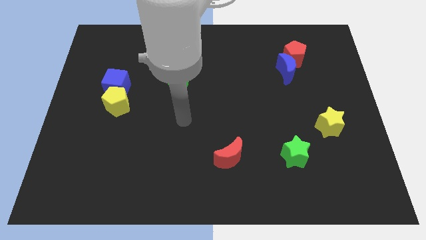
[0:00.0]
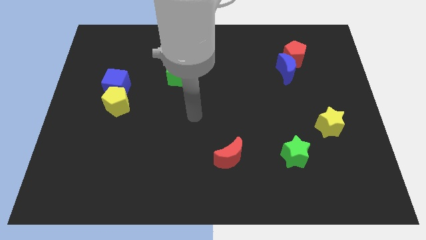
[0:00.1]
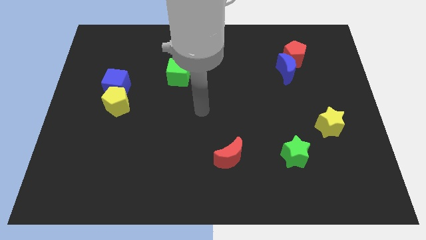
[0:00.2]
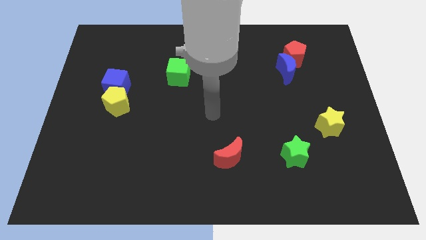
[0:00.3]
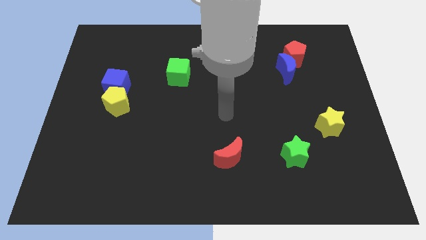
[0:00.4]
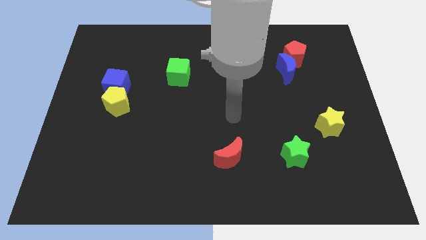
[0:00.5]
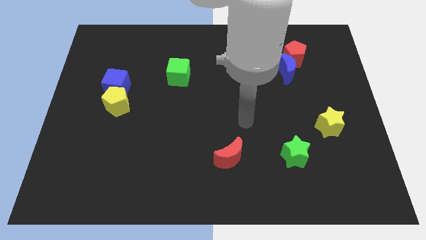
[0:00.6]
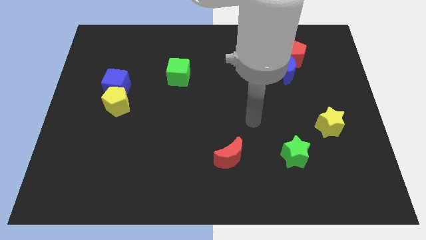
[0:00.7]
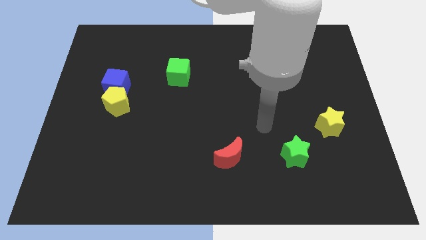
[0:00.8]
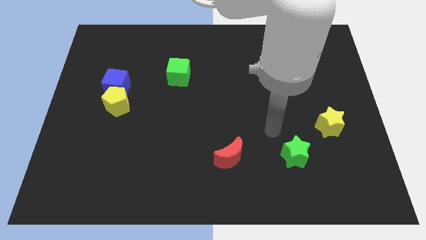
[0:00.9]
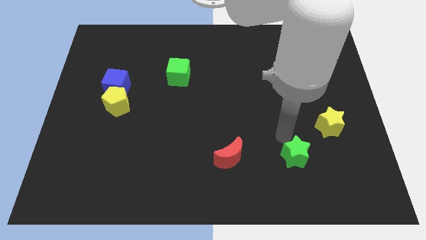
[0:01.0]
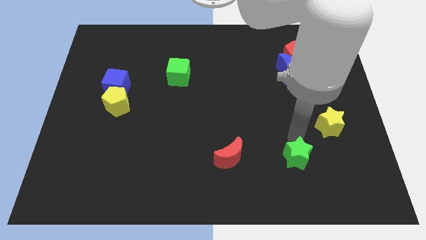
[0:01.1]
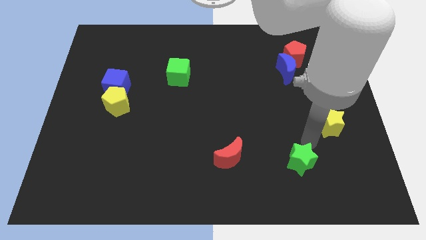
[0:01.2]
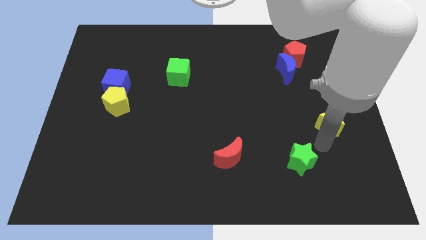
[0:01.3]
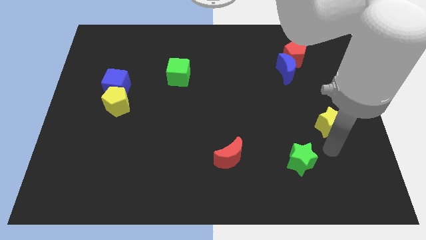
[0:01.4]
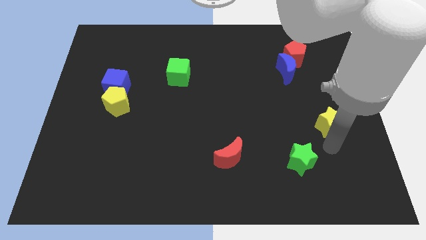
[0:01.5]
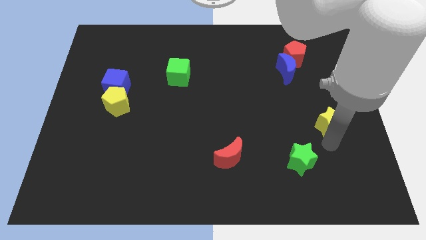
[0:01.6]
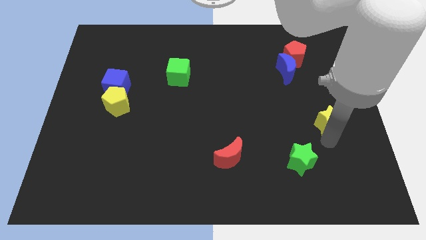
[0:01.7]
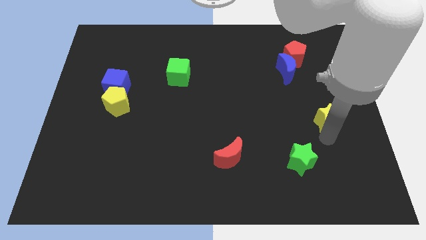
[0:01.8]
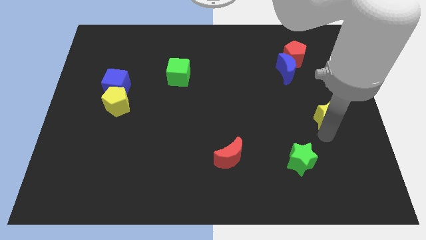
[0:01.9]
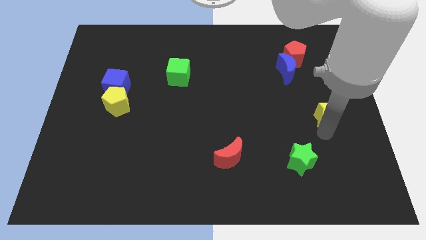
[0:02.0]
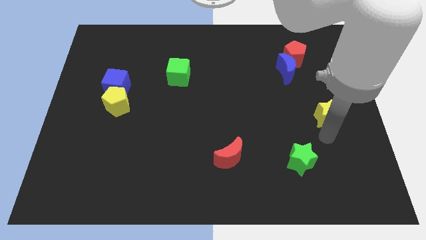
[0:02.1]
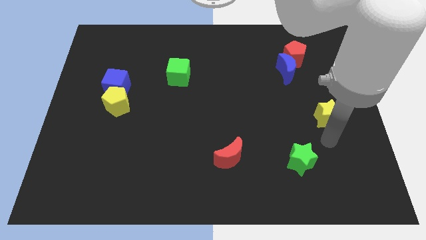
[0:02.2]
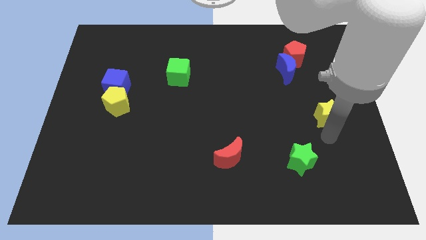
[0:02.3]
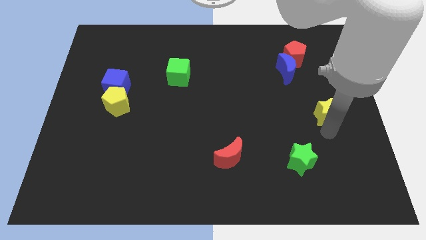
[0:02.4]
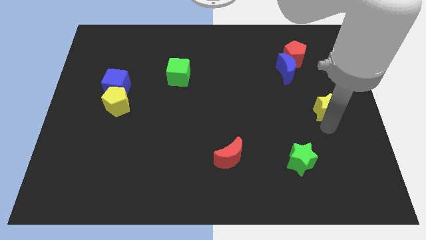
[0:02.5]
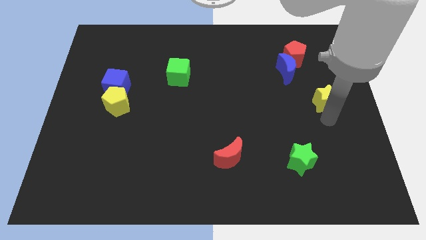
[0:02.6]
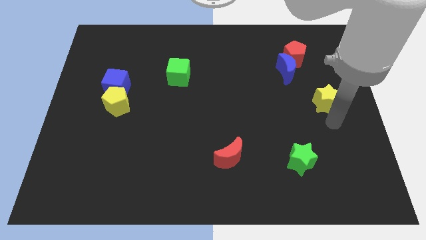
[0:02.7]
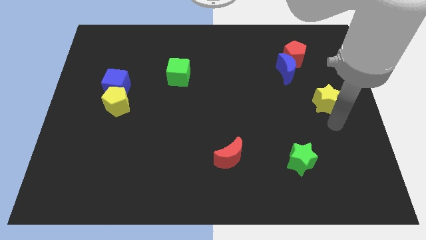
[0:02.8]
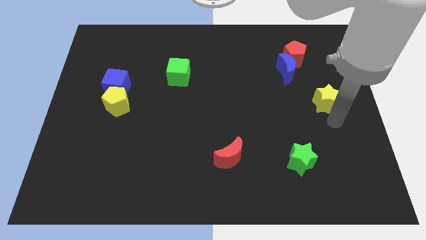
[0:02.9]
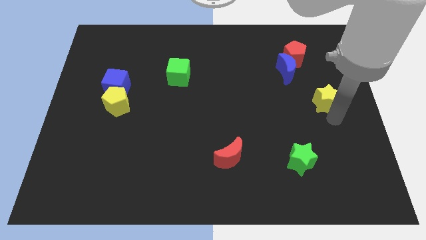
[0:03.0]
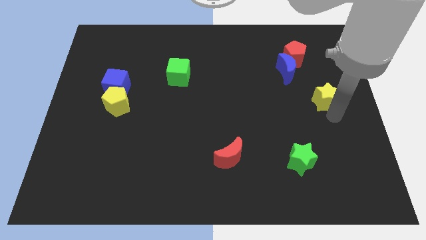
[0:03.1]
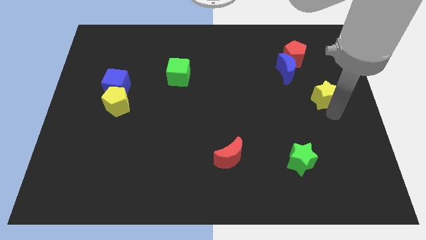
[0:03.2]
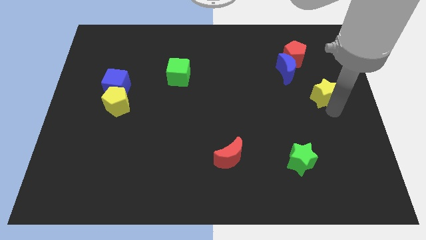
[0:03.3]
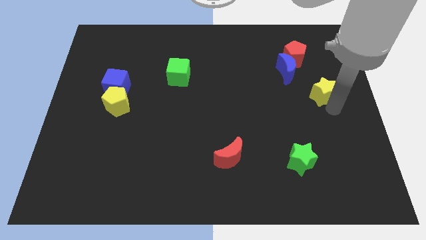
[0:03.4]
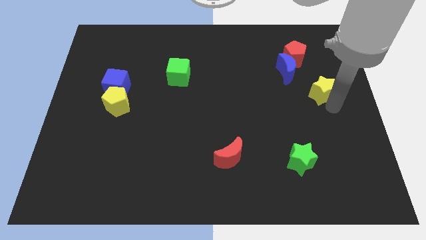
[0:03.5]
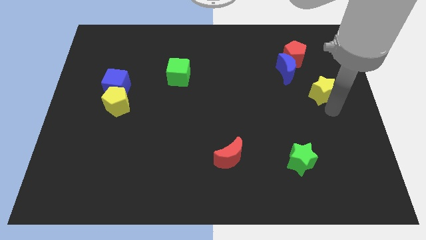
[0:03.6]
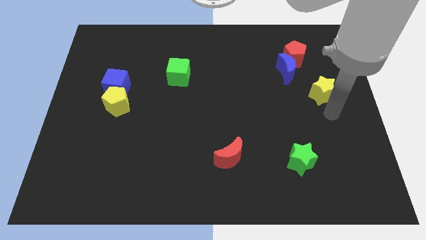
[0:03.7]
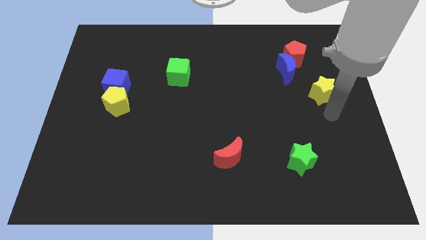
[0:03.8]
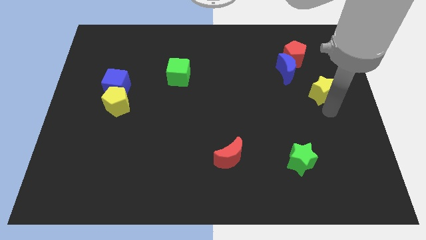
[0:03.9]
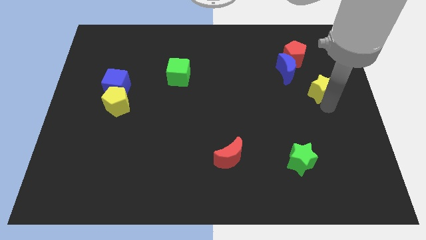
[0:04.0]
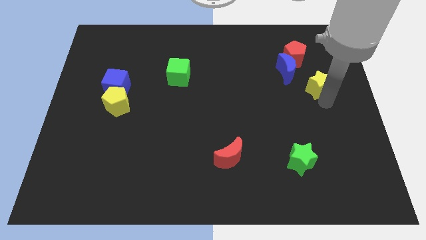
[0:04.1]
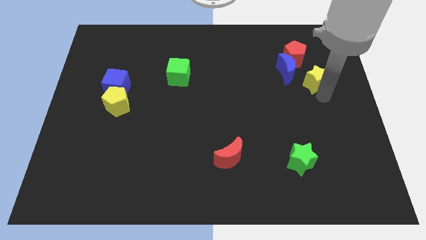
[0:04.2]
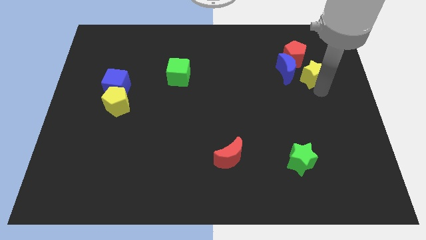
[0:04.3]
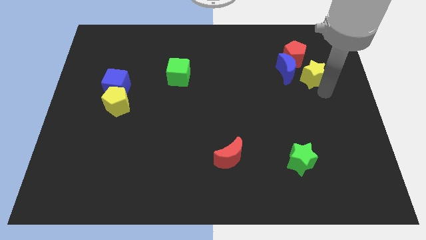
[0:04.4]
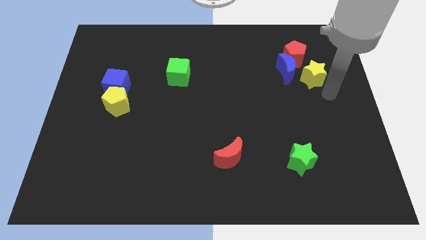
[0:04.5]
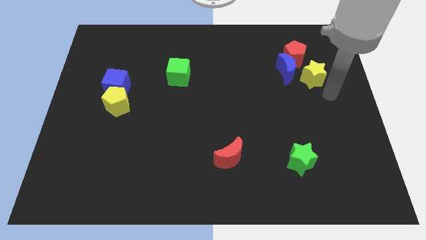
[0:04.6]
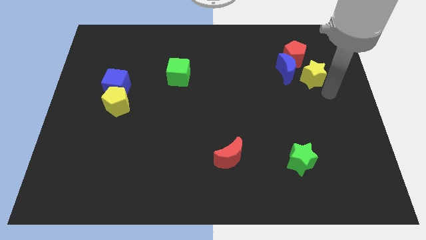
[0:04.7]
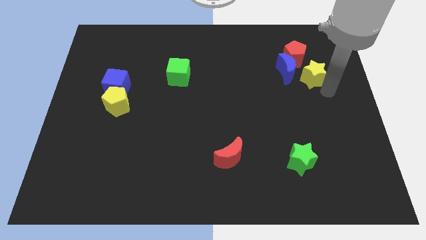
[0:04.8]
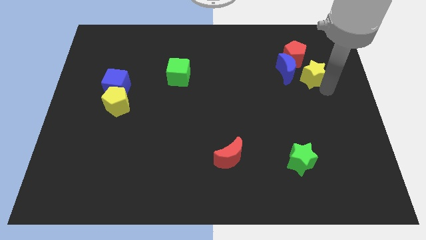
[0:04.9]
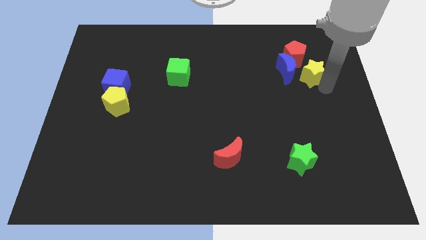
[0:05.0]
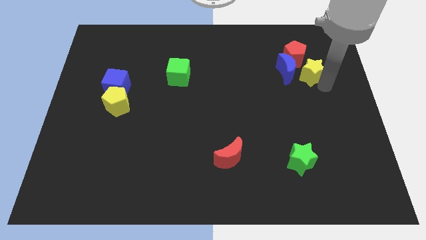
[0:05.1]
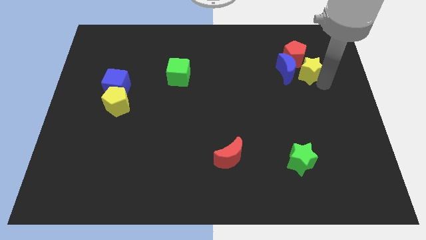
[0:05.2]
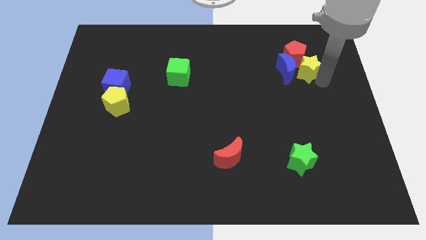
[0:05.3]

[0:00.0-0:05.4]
put the yellow star next to the red pentagon

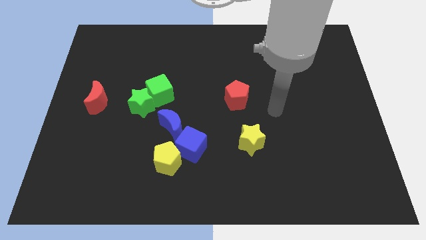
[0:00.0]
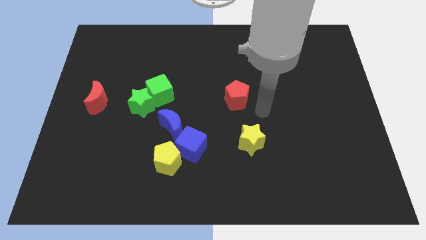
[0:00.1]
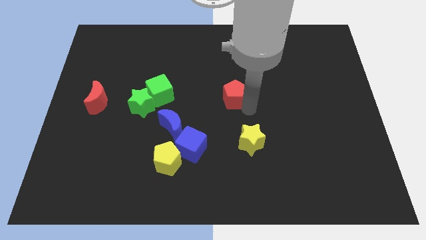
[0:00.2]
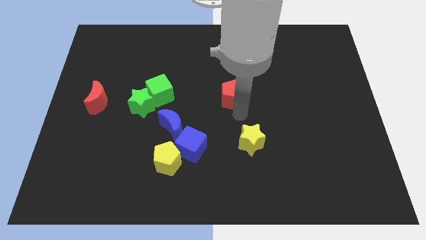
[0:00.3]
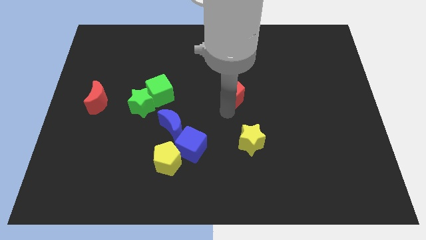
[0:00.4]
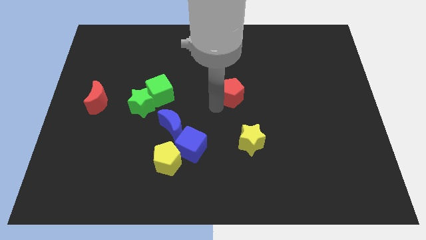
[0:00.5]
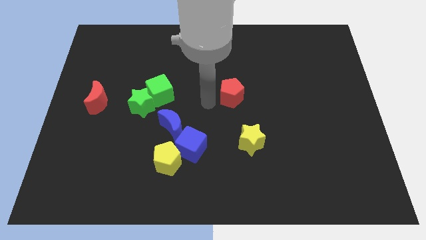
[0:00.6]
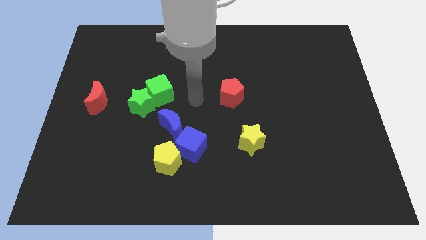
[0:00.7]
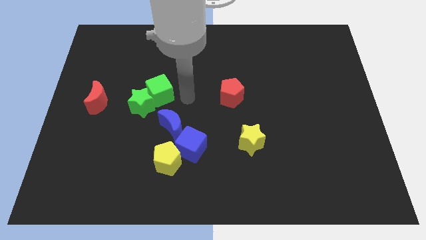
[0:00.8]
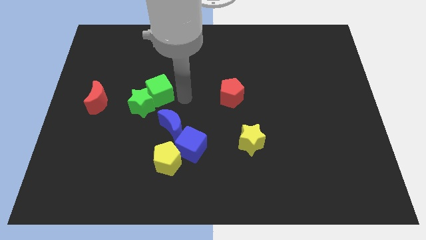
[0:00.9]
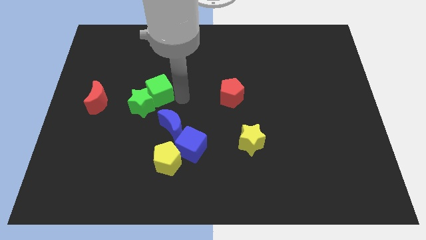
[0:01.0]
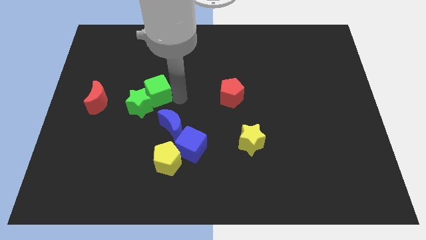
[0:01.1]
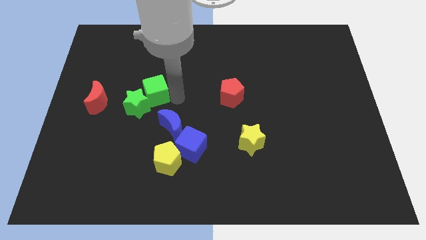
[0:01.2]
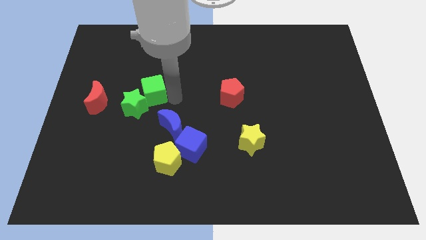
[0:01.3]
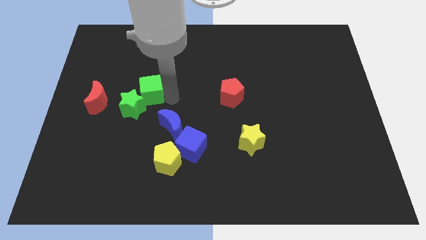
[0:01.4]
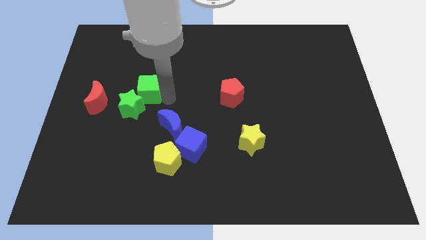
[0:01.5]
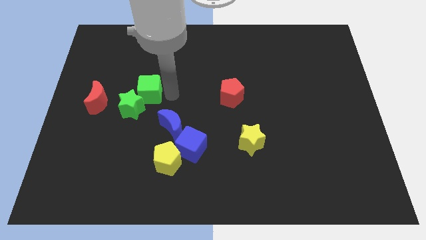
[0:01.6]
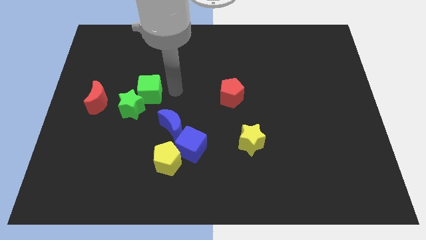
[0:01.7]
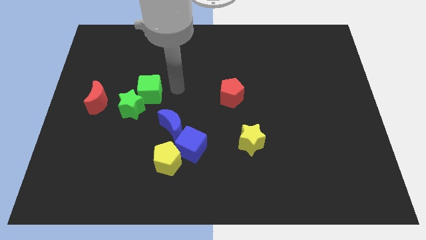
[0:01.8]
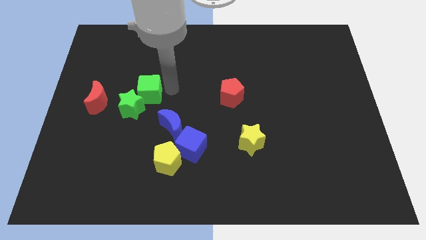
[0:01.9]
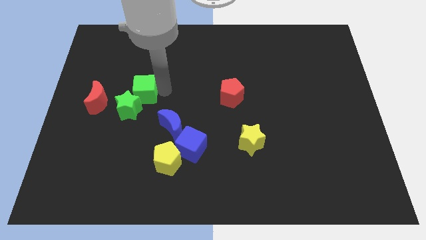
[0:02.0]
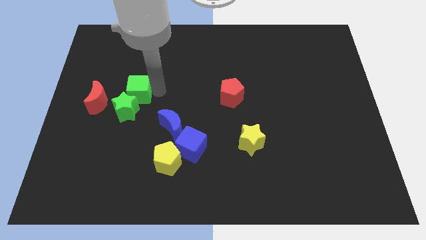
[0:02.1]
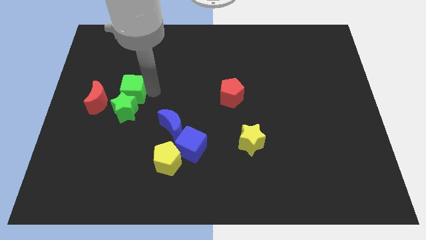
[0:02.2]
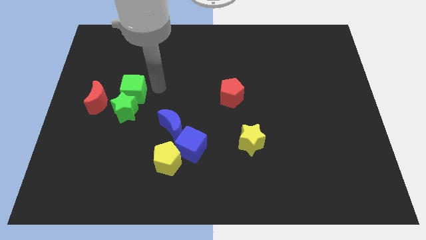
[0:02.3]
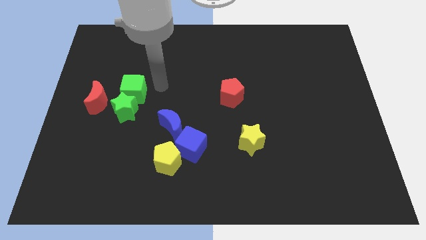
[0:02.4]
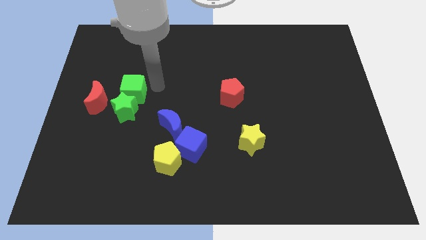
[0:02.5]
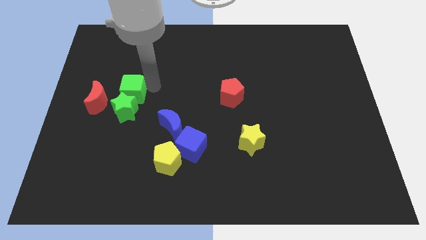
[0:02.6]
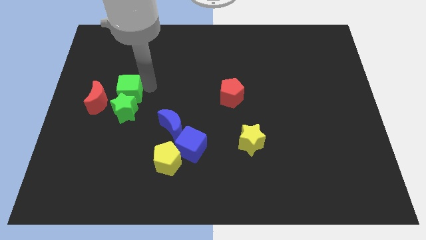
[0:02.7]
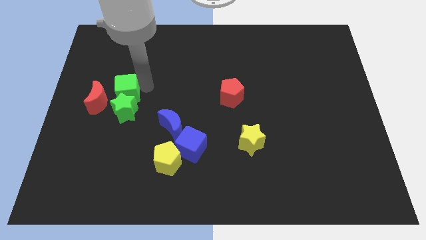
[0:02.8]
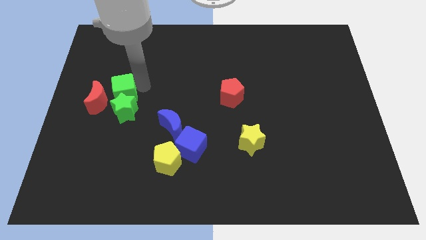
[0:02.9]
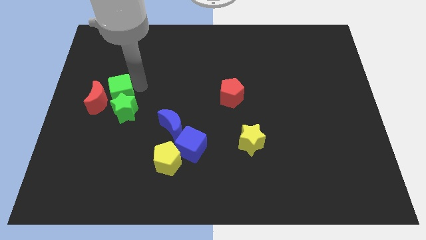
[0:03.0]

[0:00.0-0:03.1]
put the green cube towards the red moon
